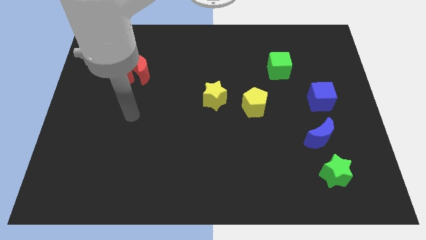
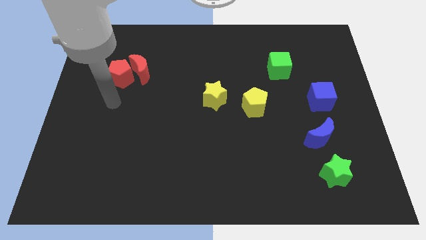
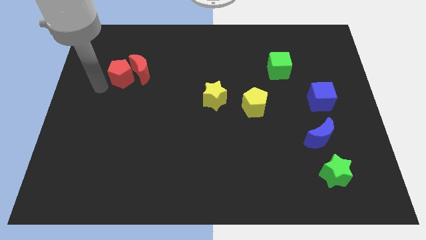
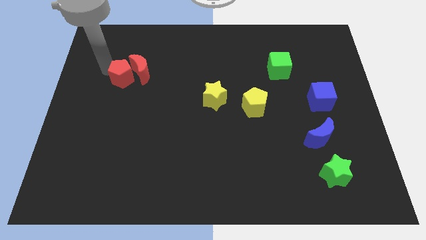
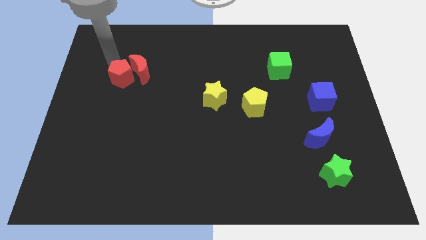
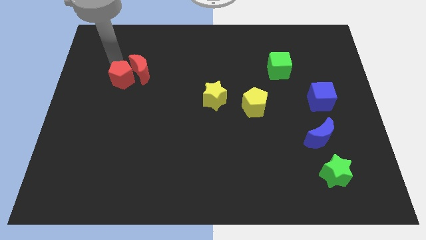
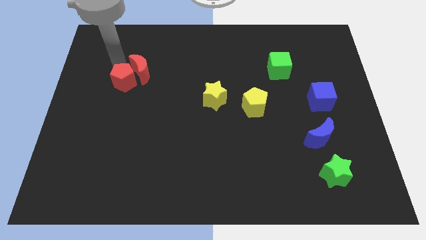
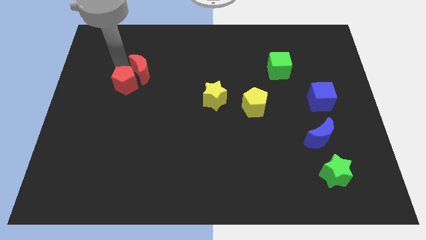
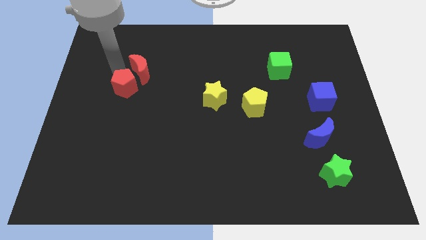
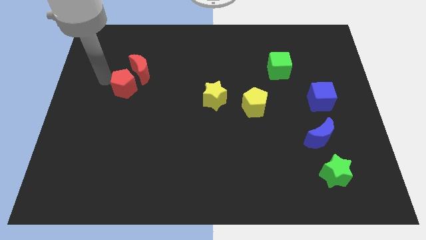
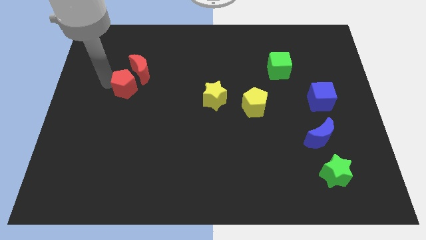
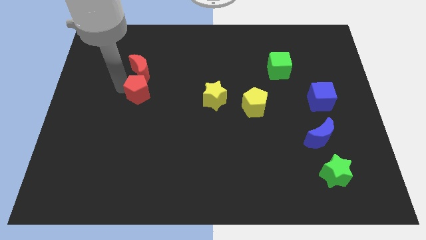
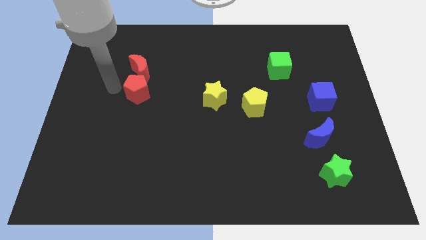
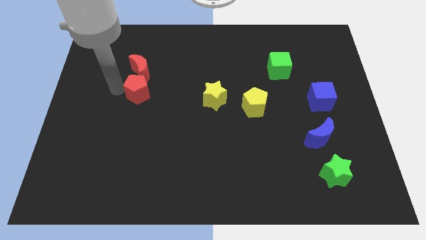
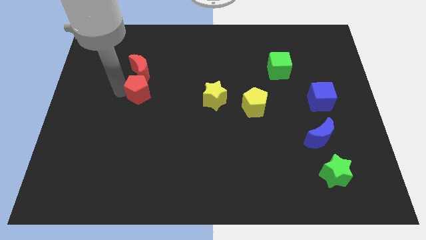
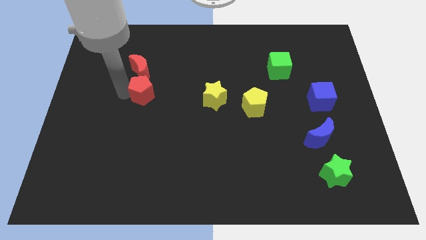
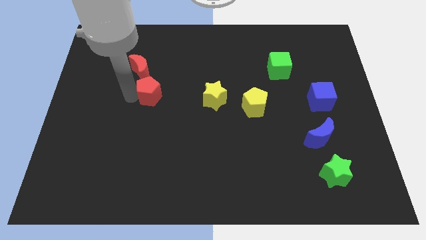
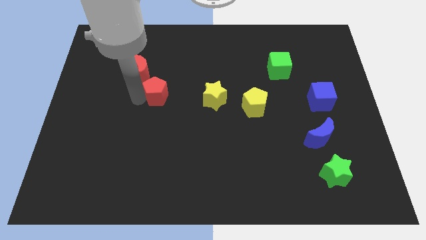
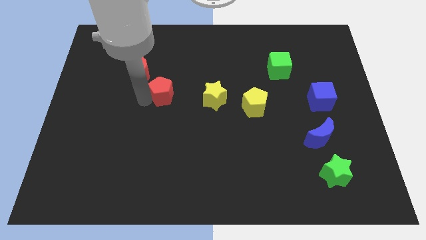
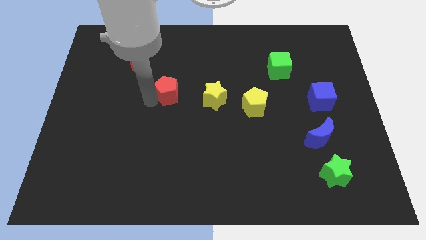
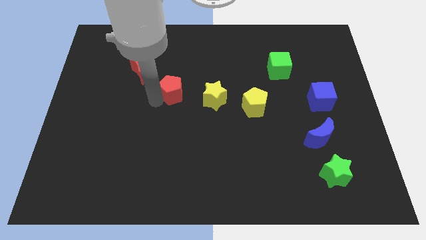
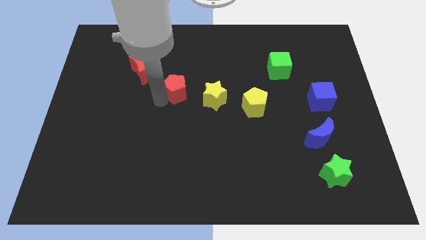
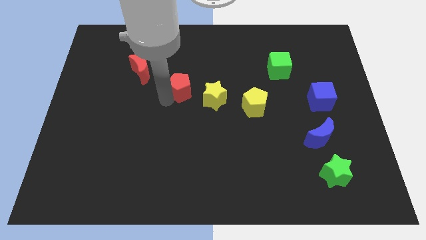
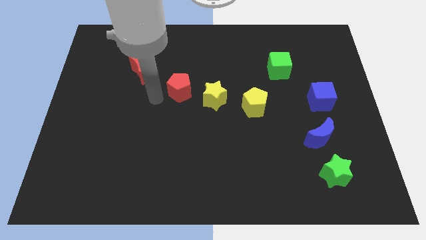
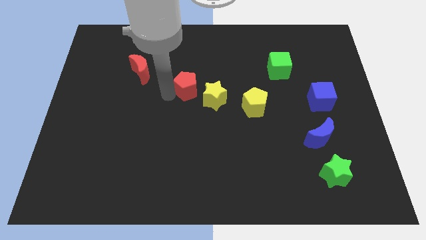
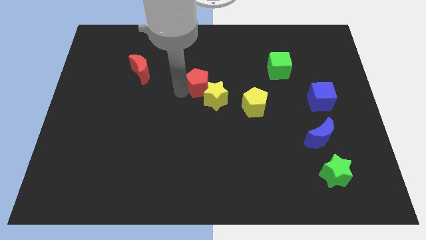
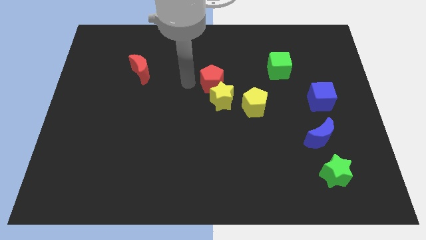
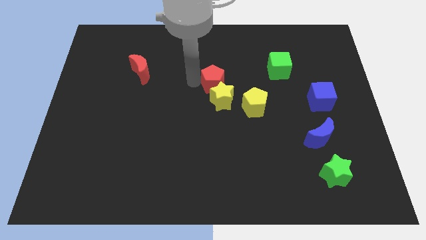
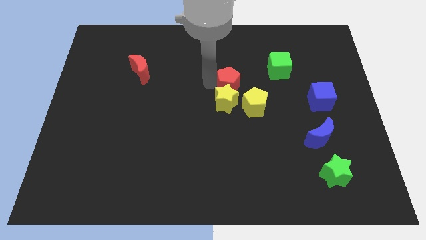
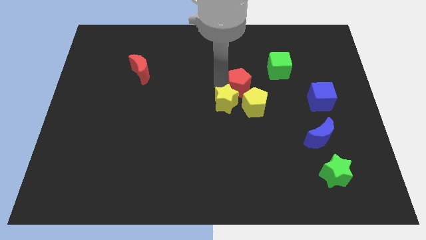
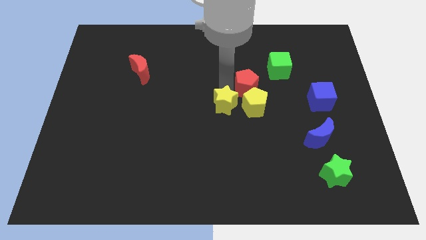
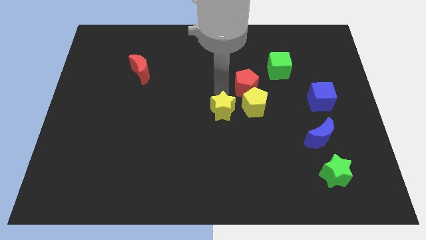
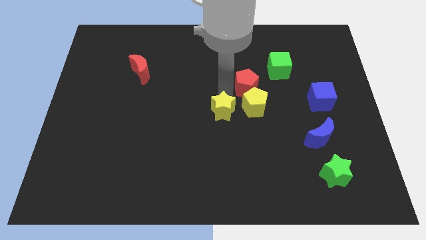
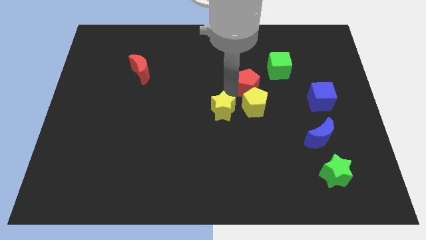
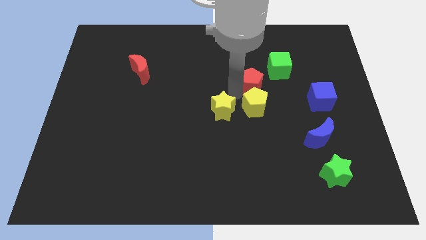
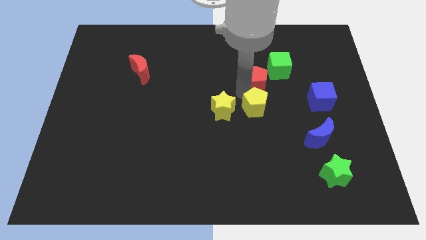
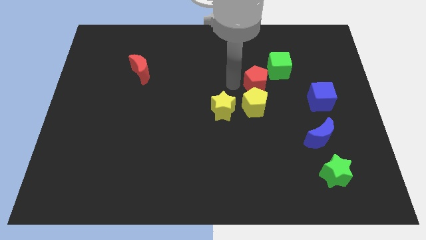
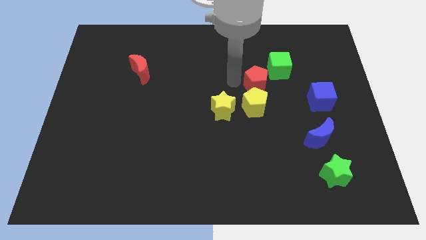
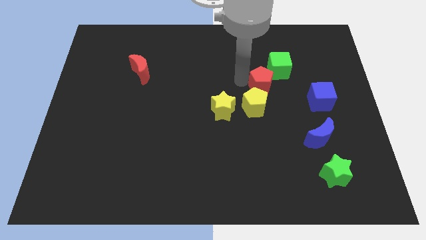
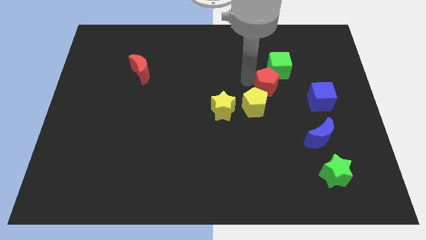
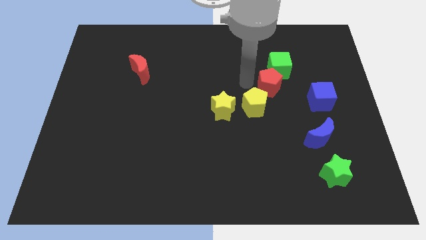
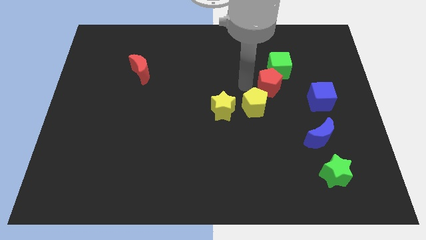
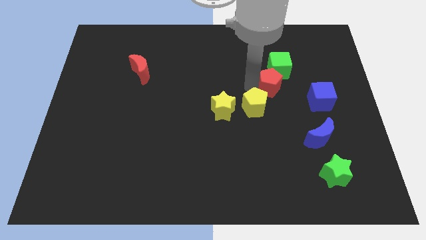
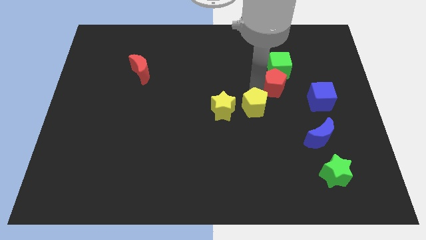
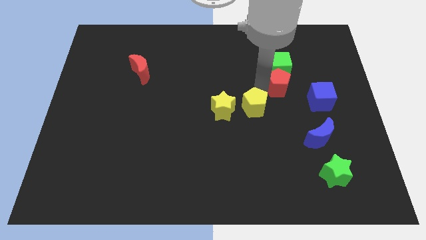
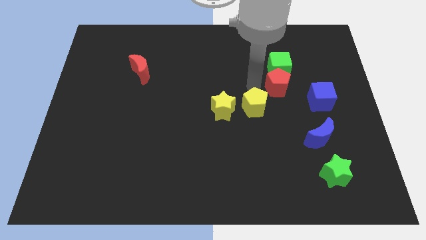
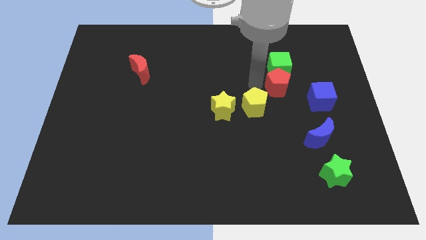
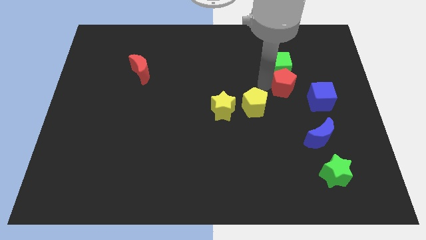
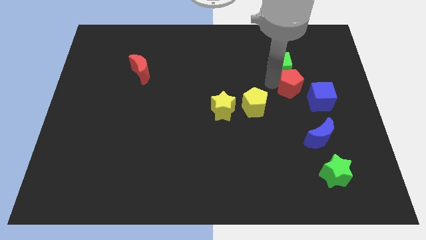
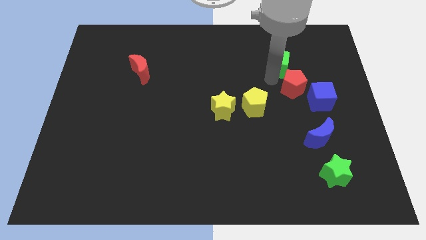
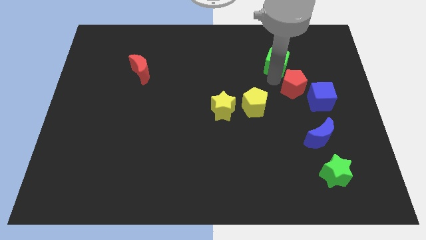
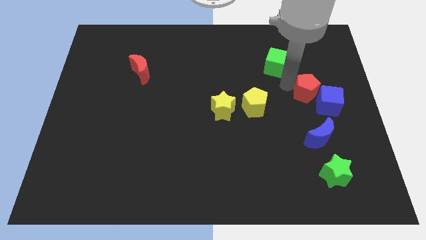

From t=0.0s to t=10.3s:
push the red pentagon close to the blue cube

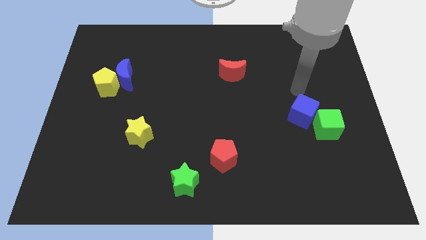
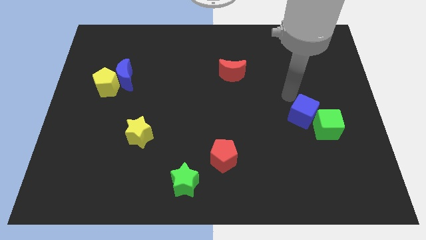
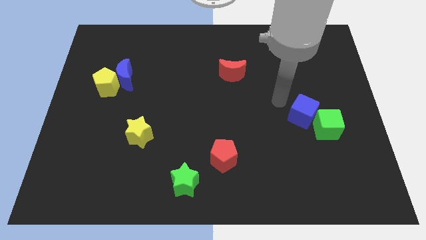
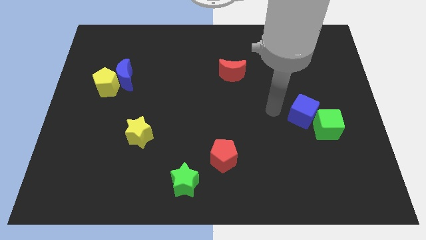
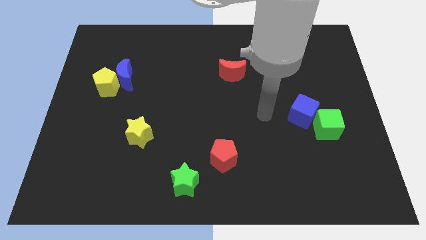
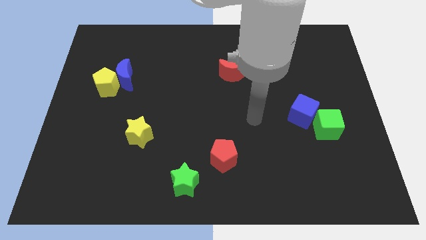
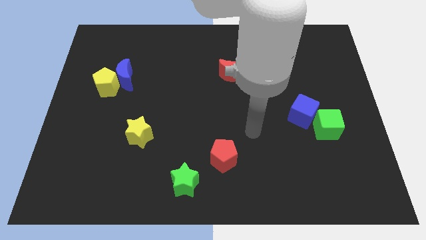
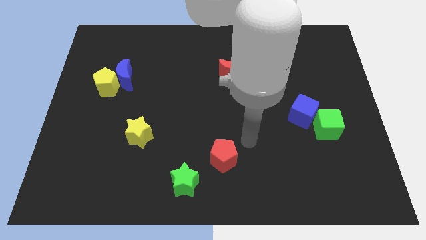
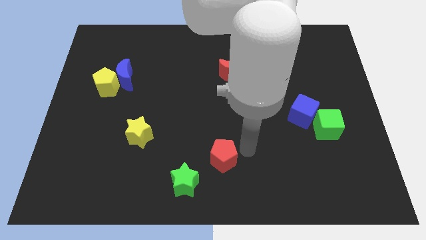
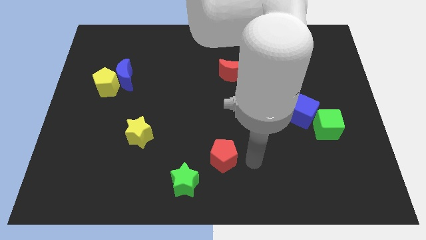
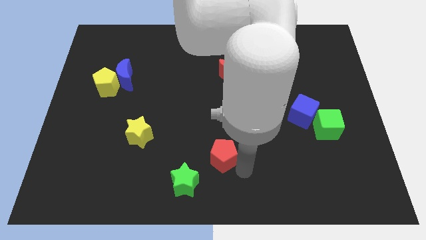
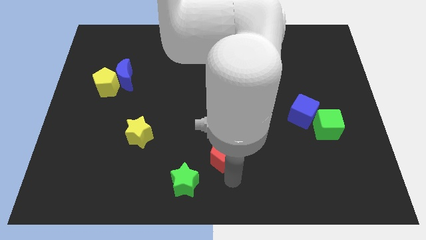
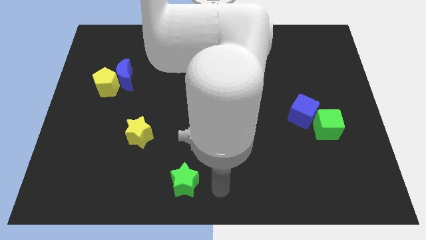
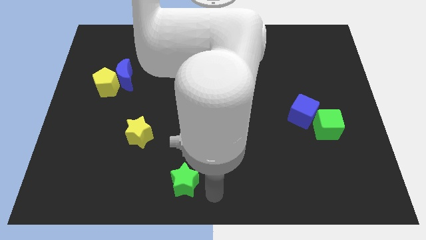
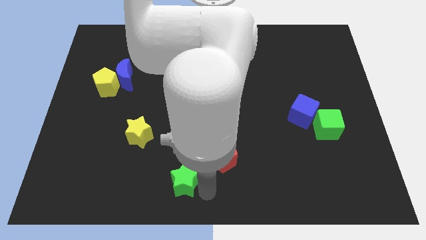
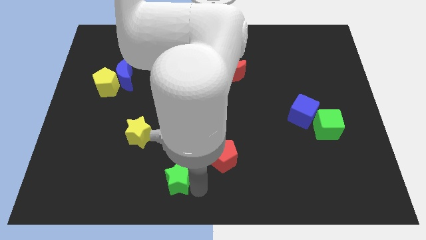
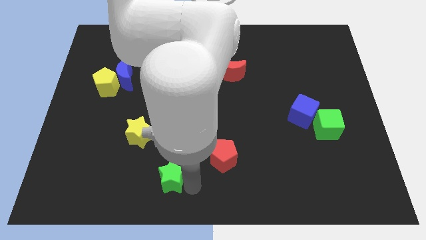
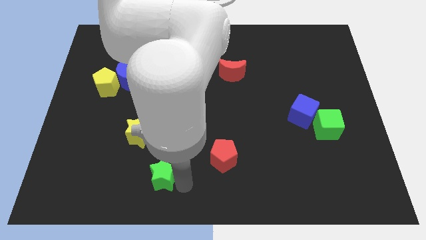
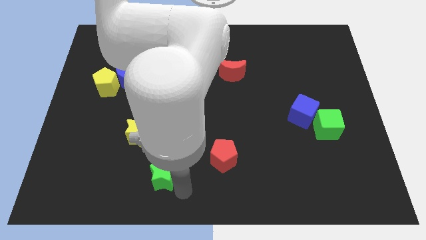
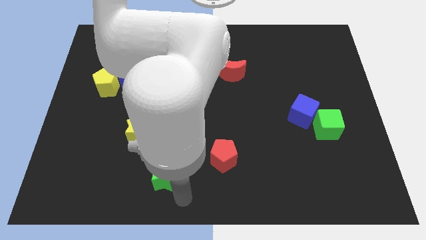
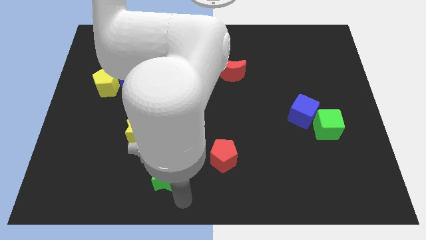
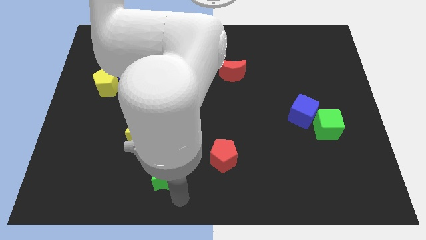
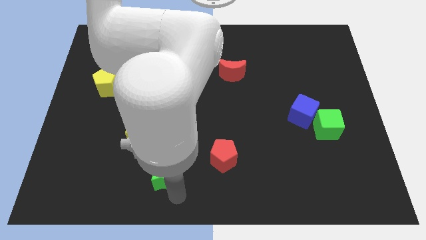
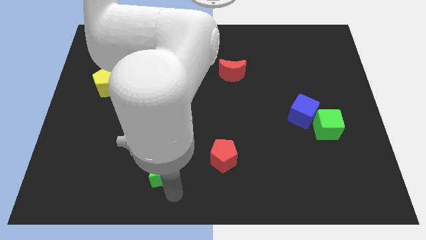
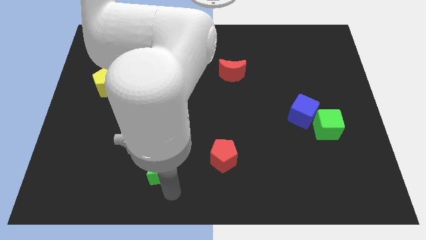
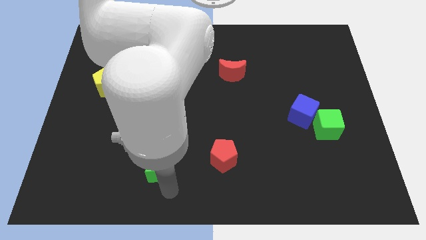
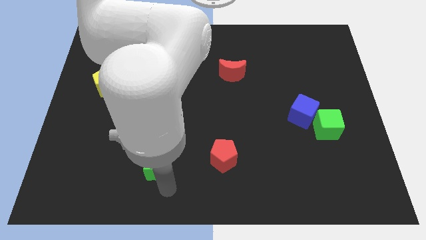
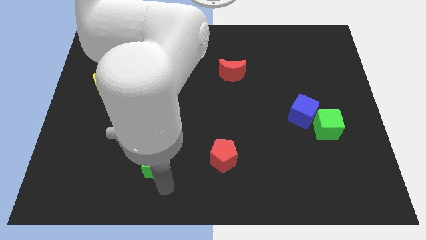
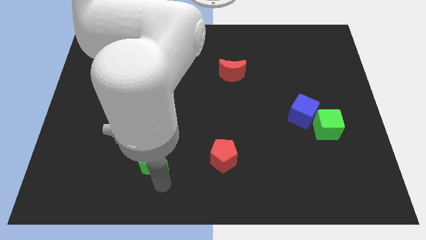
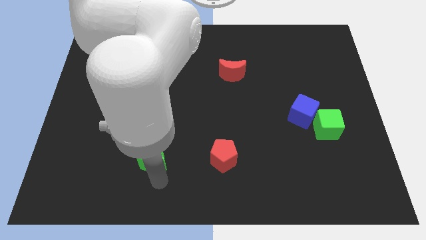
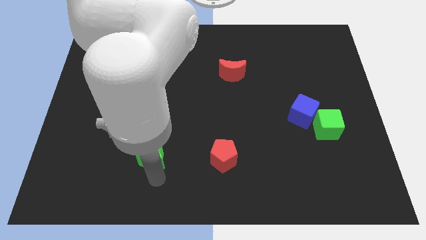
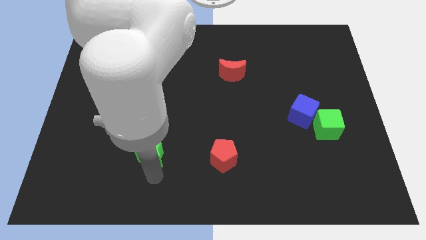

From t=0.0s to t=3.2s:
put the green star to the yellow star
